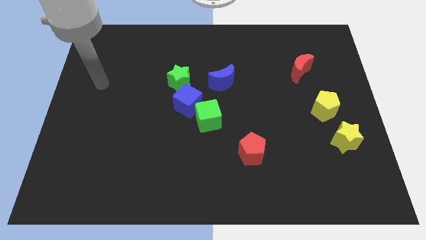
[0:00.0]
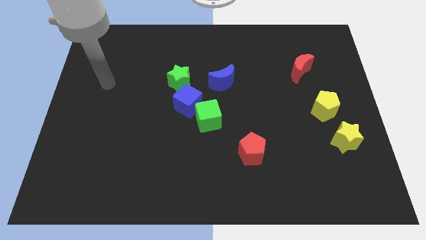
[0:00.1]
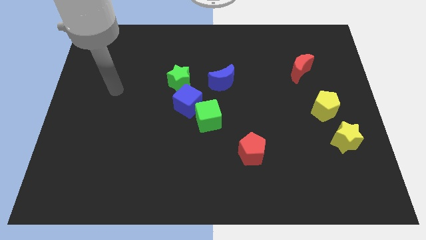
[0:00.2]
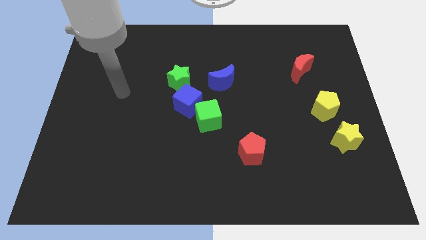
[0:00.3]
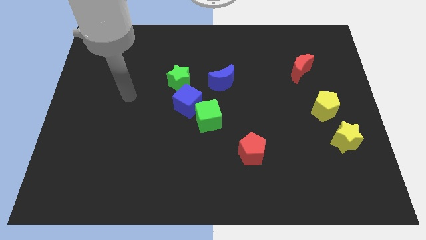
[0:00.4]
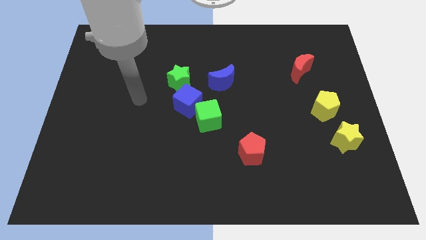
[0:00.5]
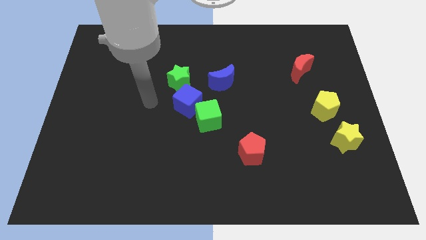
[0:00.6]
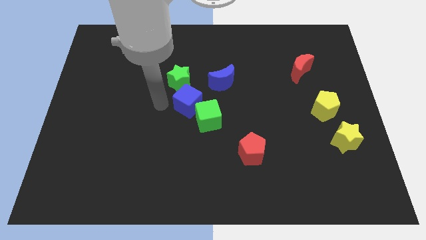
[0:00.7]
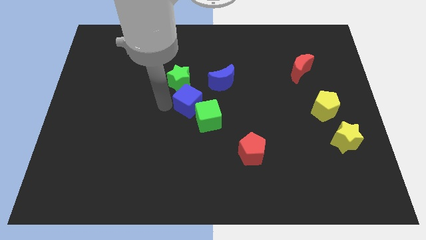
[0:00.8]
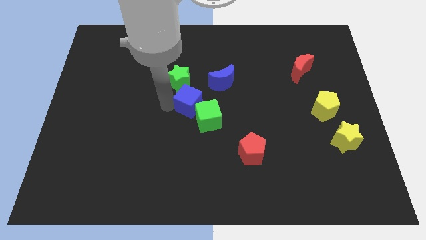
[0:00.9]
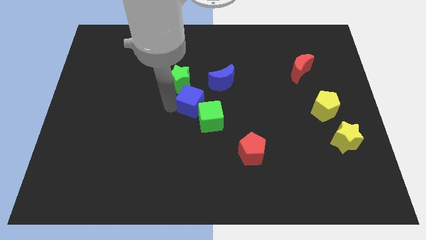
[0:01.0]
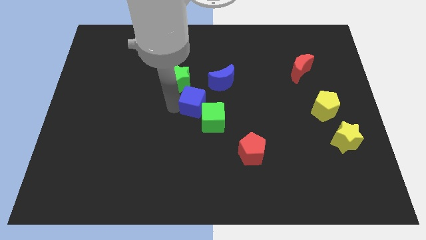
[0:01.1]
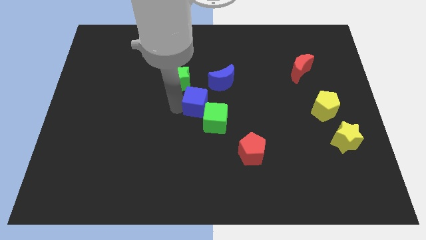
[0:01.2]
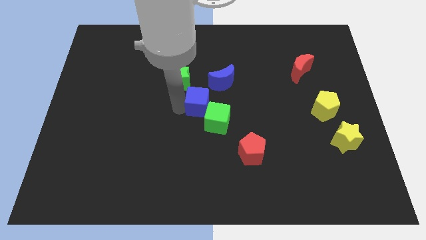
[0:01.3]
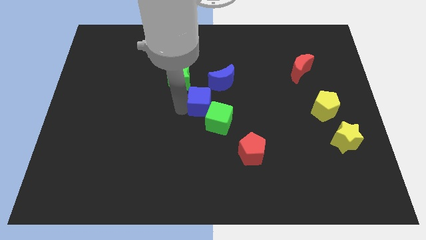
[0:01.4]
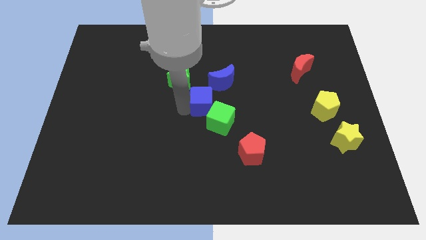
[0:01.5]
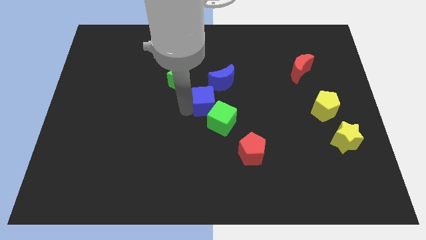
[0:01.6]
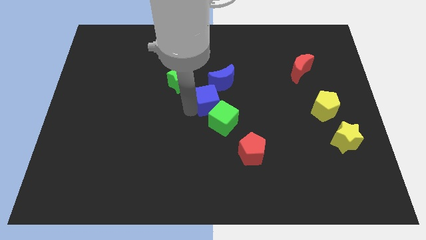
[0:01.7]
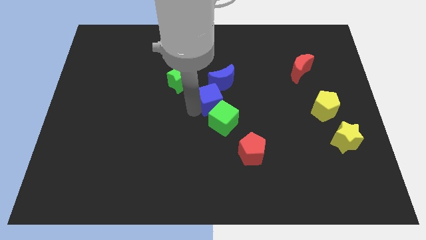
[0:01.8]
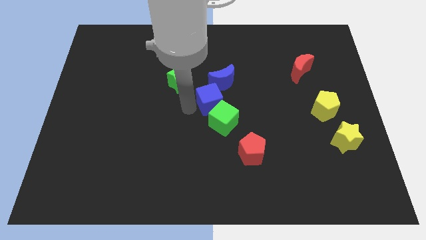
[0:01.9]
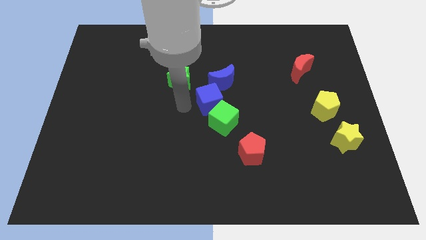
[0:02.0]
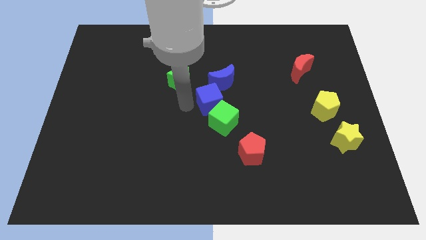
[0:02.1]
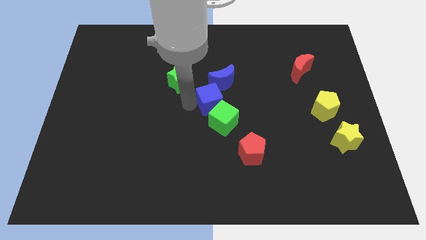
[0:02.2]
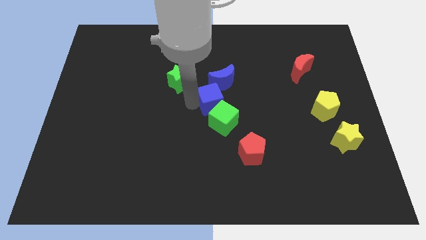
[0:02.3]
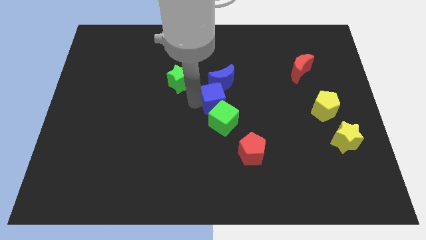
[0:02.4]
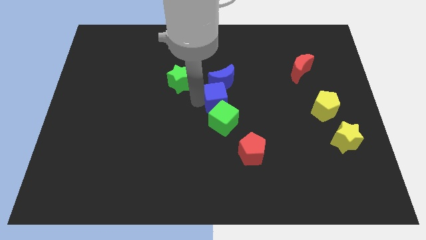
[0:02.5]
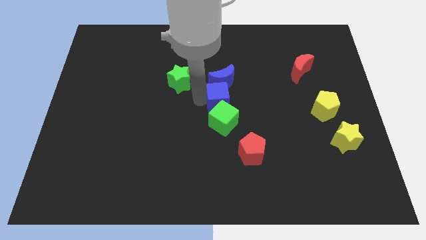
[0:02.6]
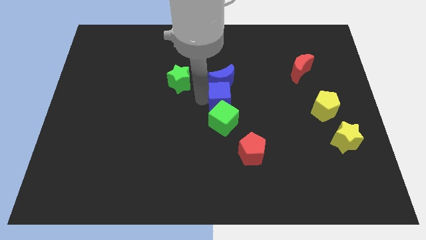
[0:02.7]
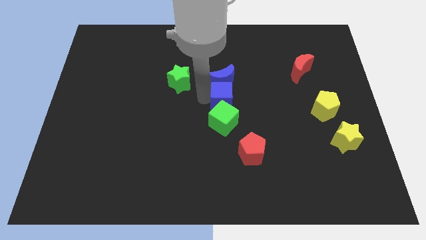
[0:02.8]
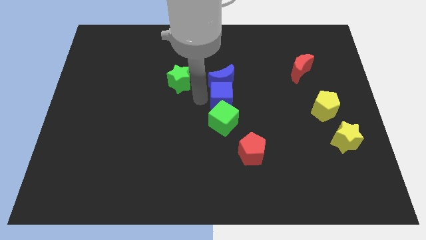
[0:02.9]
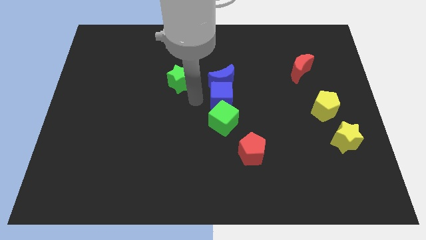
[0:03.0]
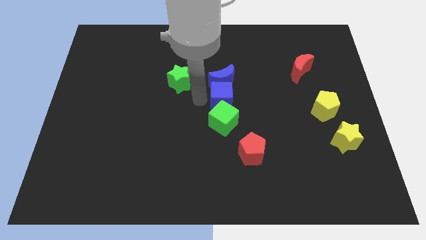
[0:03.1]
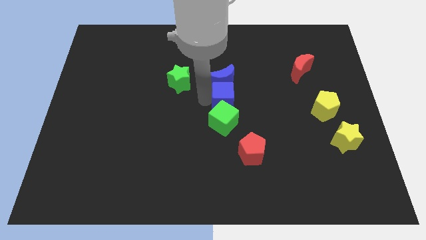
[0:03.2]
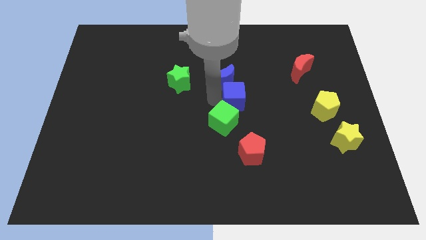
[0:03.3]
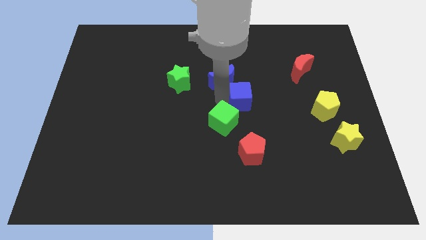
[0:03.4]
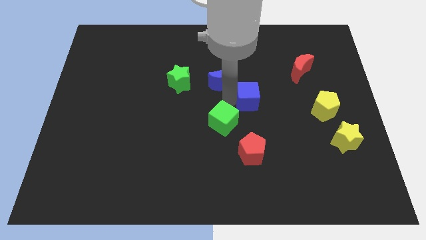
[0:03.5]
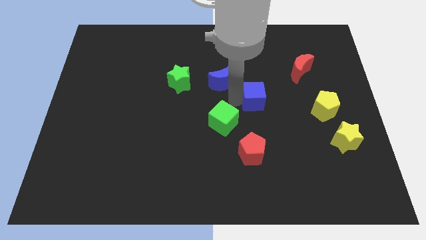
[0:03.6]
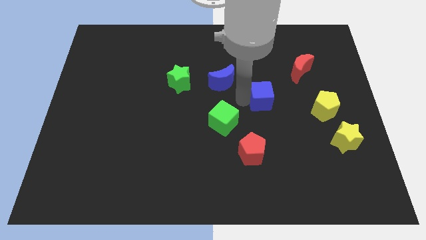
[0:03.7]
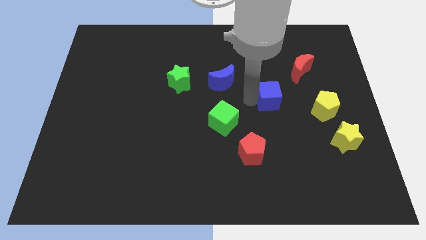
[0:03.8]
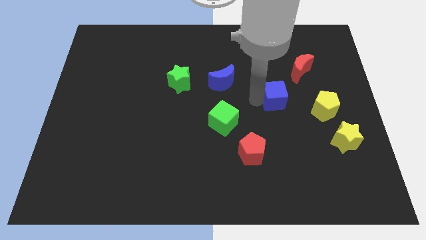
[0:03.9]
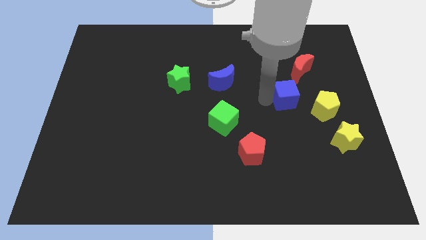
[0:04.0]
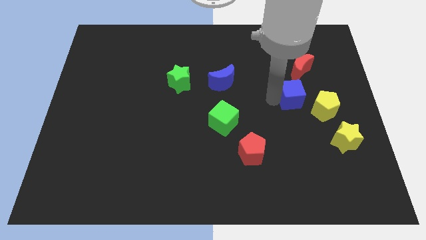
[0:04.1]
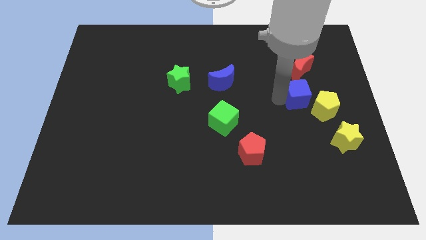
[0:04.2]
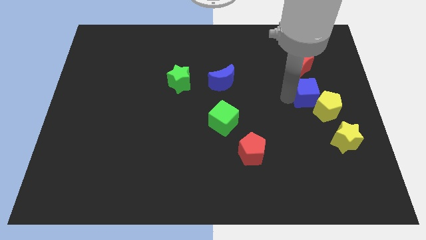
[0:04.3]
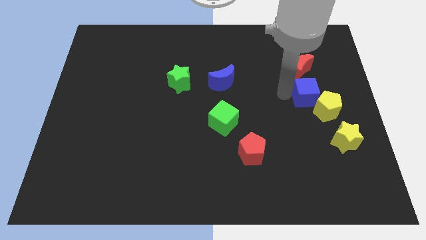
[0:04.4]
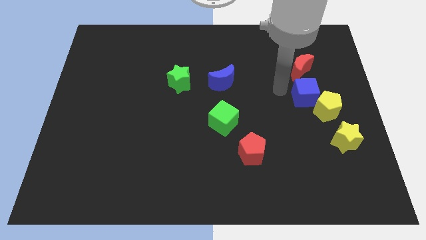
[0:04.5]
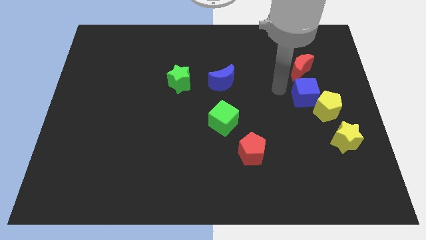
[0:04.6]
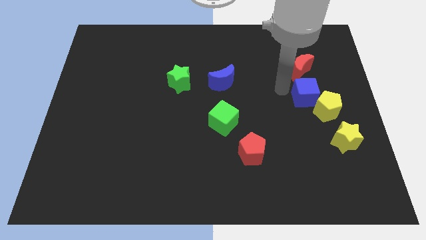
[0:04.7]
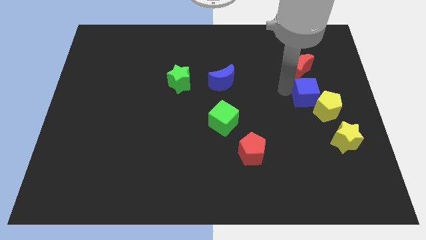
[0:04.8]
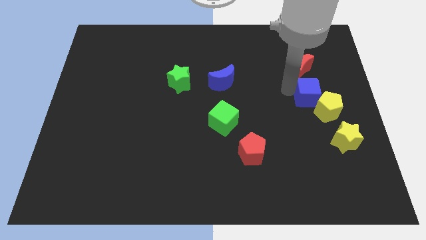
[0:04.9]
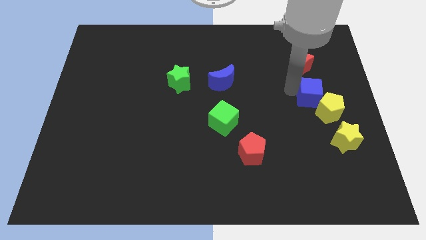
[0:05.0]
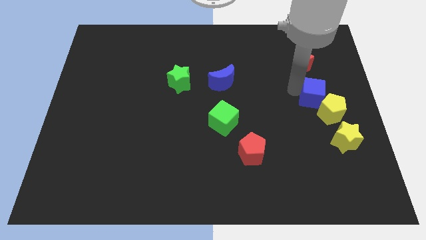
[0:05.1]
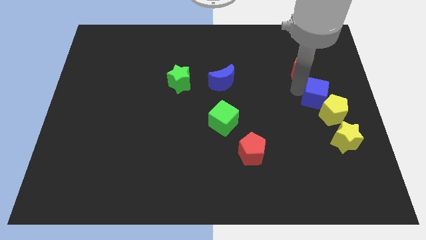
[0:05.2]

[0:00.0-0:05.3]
slide the blue cube to the top side of the yellow star

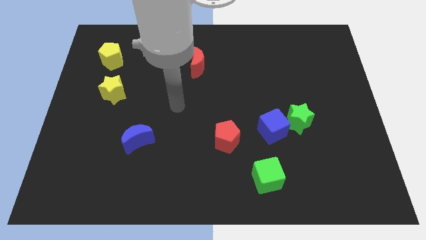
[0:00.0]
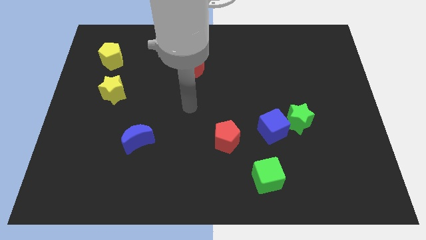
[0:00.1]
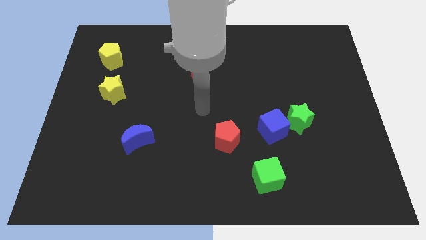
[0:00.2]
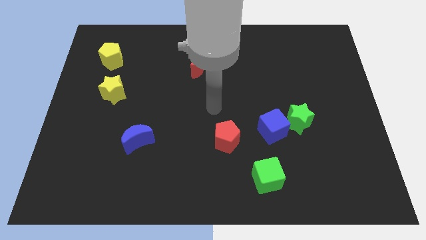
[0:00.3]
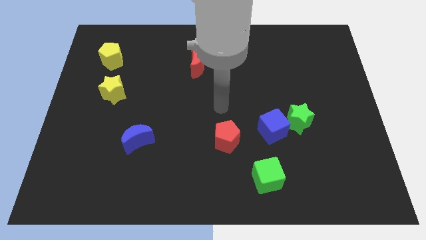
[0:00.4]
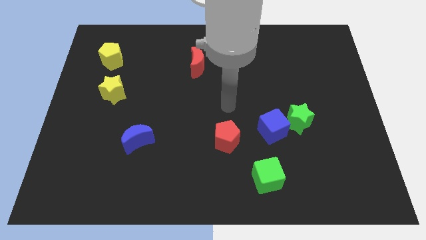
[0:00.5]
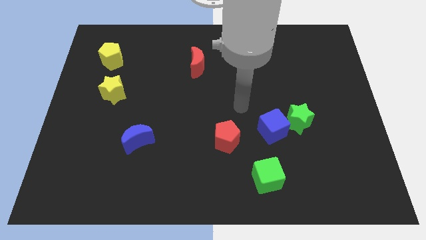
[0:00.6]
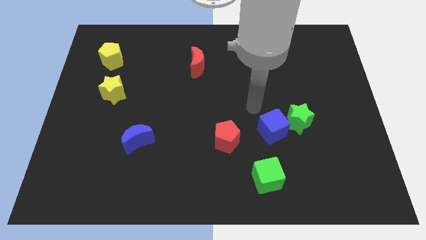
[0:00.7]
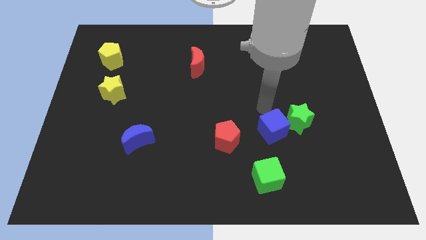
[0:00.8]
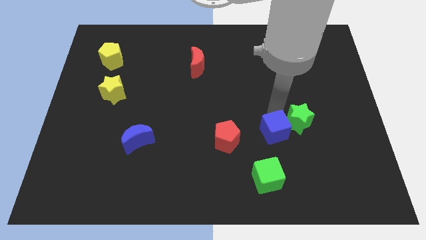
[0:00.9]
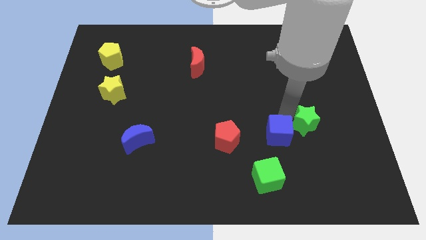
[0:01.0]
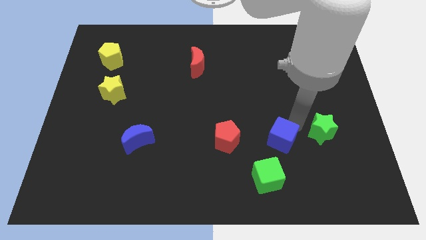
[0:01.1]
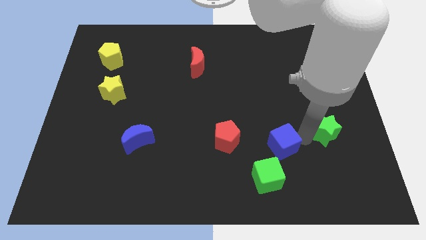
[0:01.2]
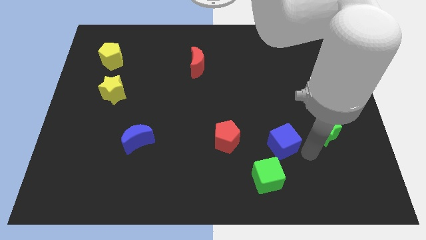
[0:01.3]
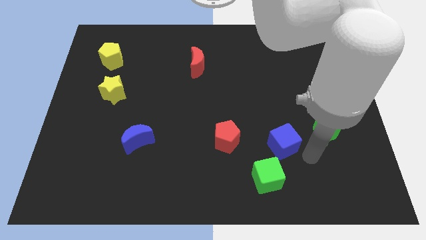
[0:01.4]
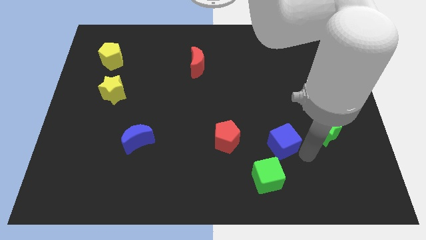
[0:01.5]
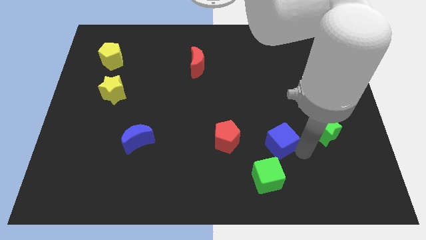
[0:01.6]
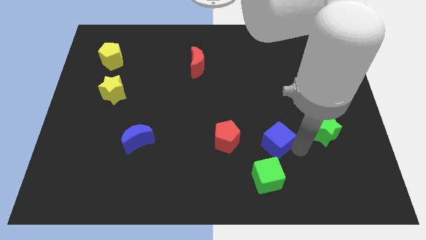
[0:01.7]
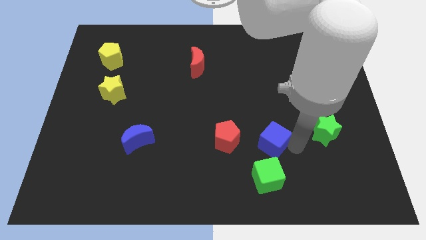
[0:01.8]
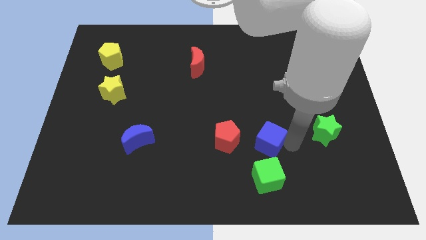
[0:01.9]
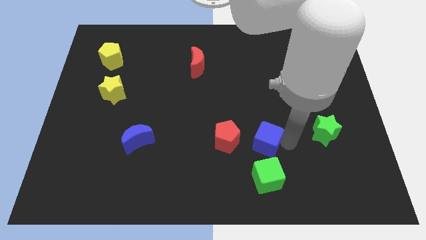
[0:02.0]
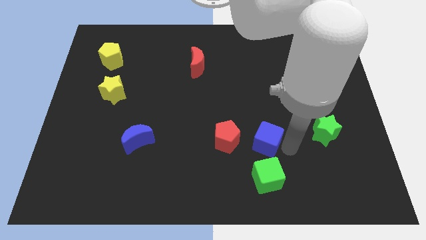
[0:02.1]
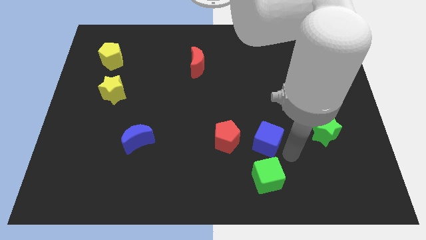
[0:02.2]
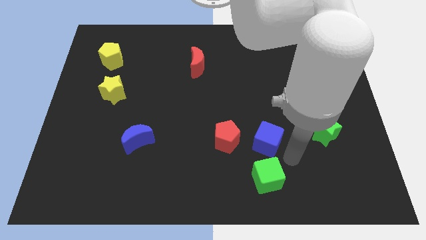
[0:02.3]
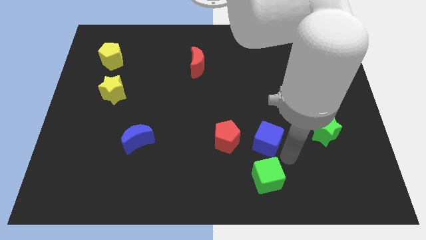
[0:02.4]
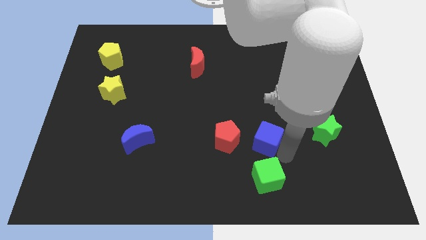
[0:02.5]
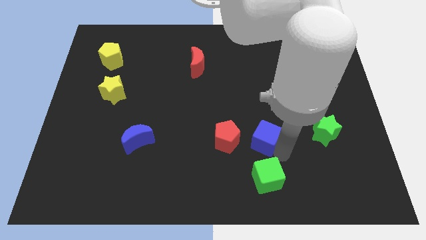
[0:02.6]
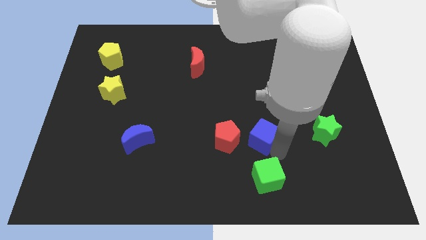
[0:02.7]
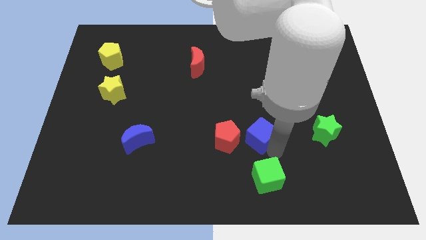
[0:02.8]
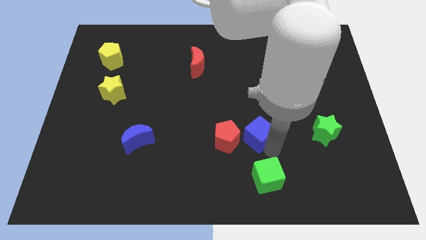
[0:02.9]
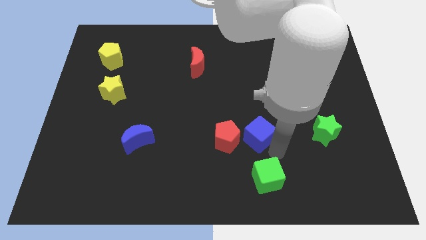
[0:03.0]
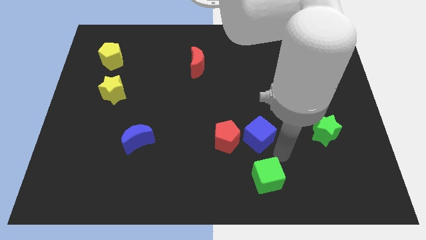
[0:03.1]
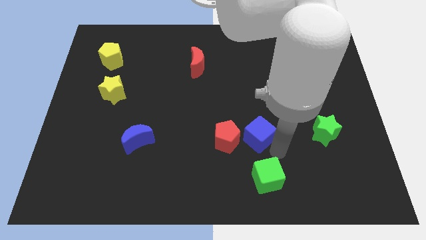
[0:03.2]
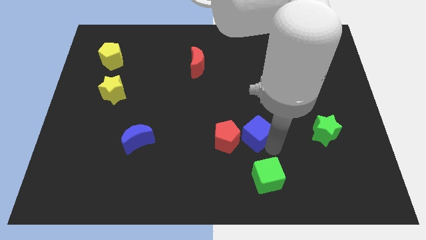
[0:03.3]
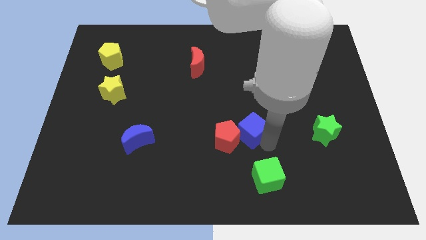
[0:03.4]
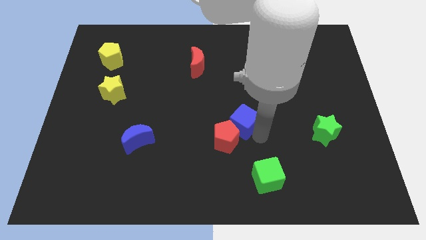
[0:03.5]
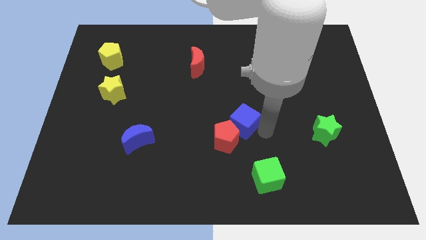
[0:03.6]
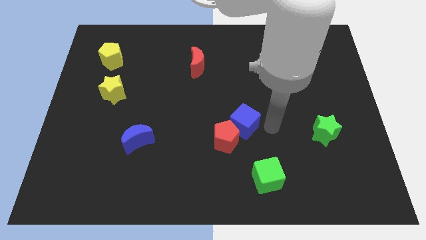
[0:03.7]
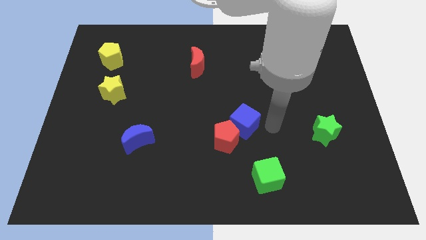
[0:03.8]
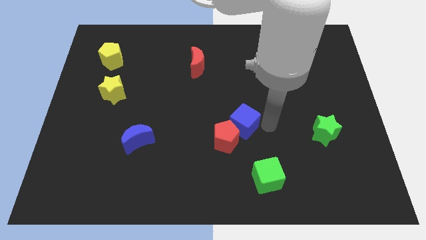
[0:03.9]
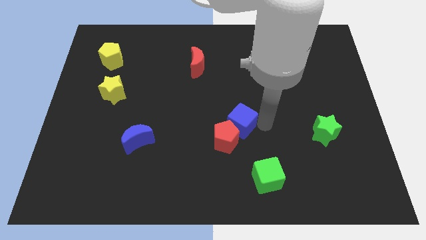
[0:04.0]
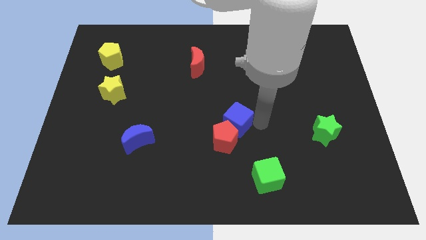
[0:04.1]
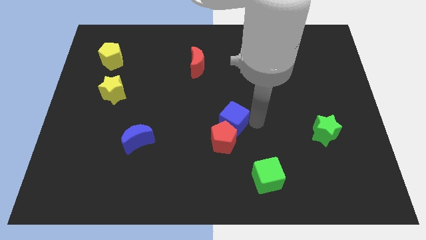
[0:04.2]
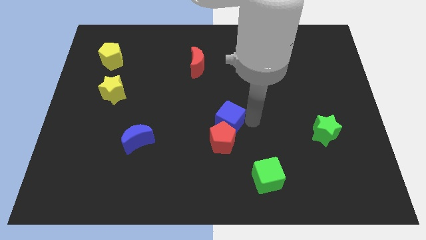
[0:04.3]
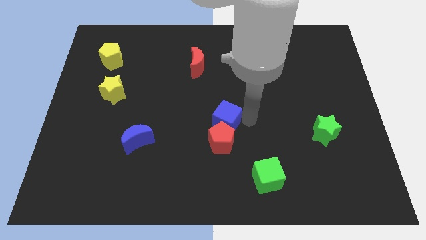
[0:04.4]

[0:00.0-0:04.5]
put the blue cube to the top left side of the red pentagon
